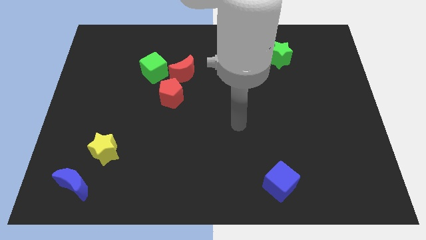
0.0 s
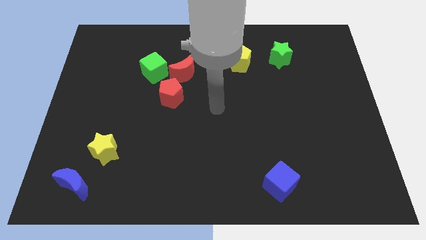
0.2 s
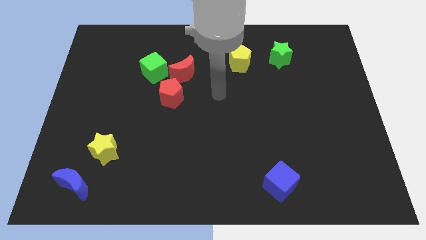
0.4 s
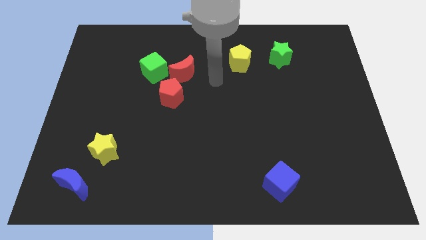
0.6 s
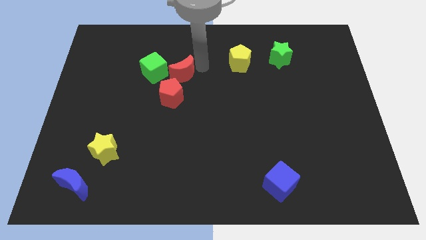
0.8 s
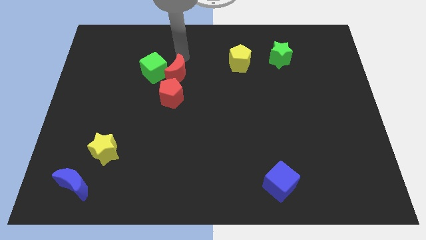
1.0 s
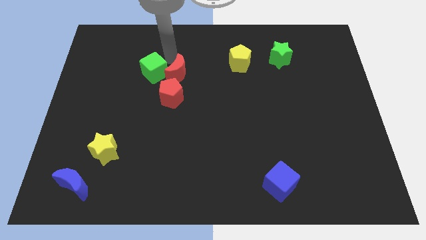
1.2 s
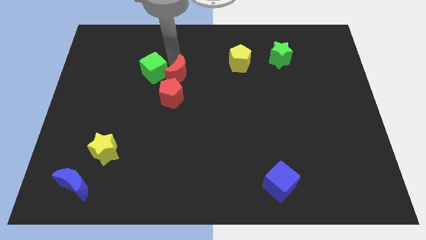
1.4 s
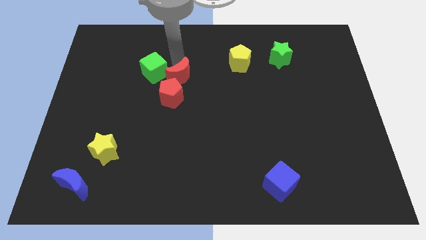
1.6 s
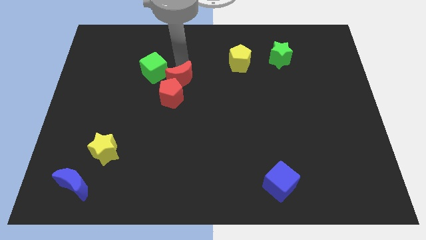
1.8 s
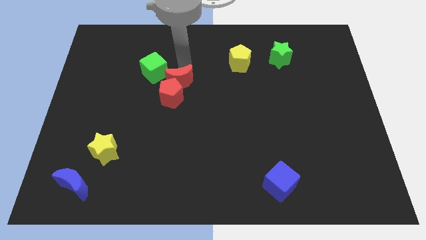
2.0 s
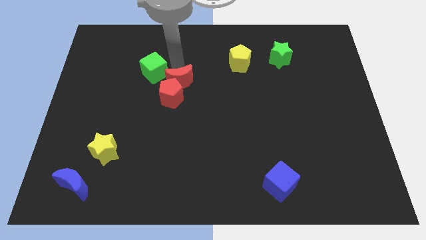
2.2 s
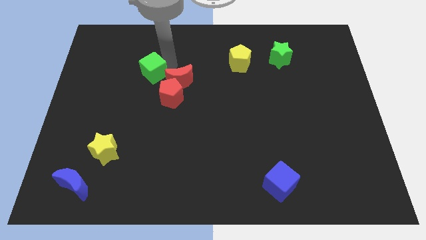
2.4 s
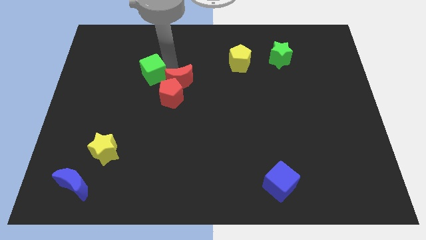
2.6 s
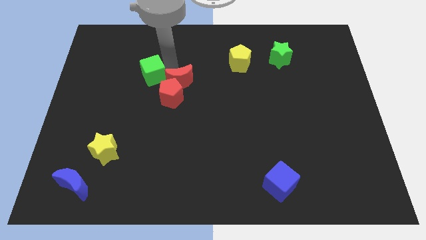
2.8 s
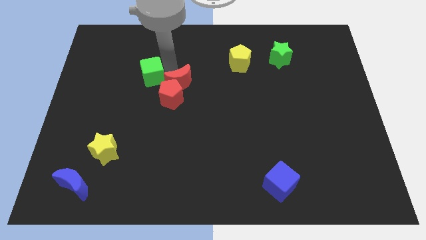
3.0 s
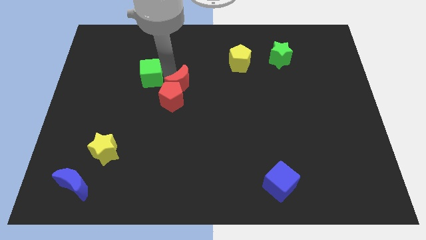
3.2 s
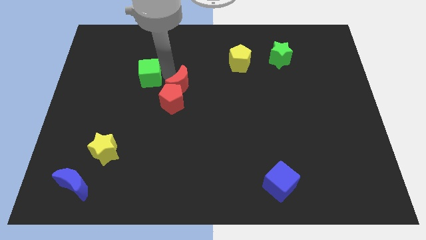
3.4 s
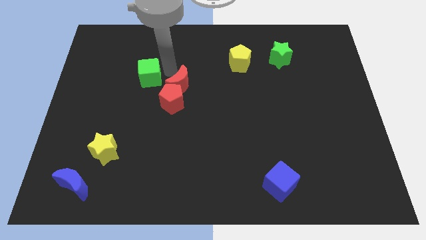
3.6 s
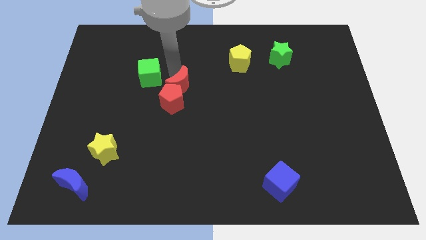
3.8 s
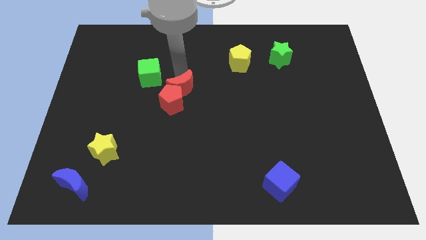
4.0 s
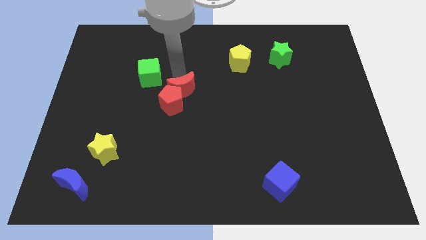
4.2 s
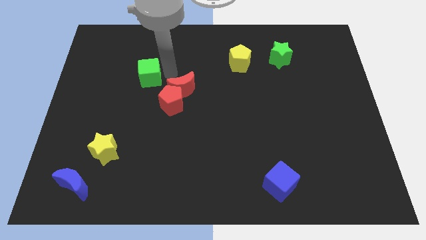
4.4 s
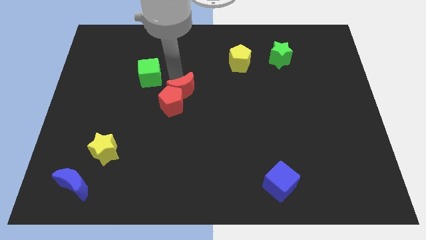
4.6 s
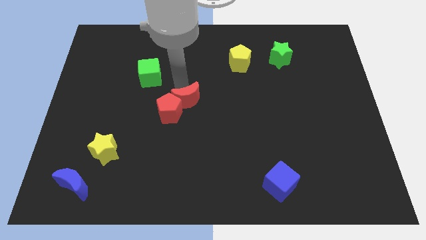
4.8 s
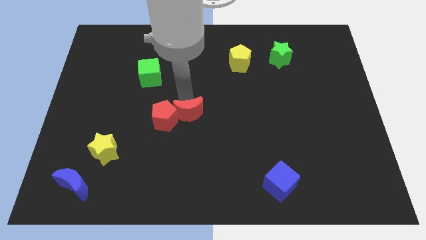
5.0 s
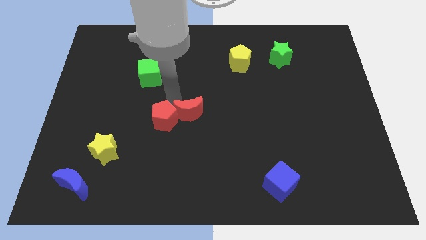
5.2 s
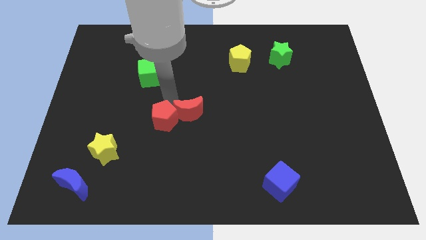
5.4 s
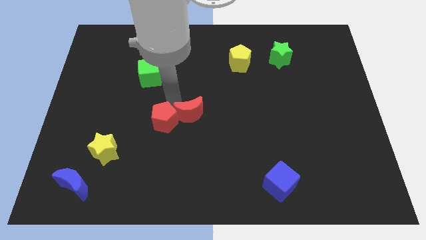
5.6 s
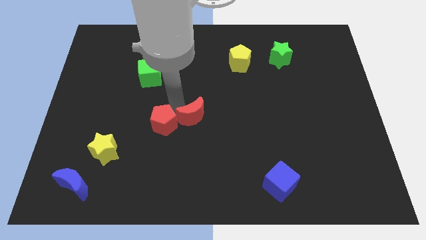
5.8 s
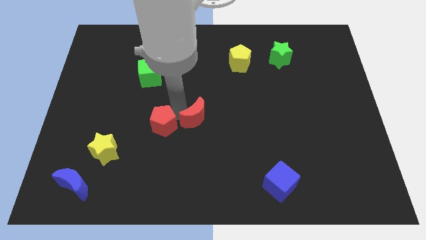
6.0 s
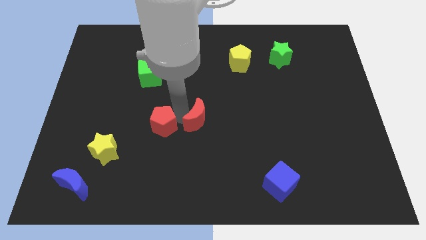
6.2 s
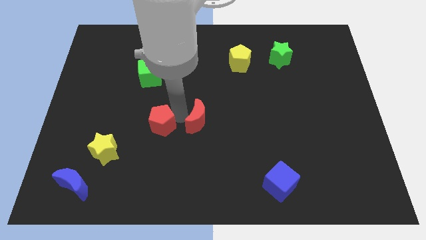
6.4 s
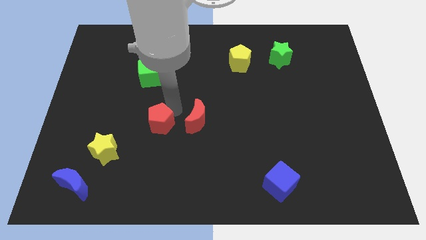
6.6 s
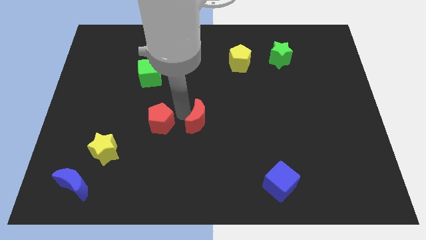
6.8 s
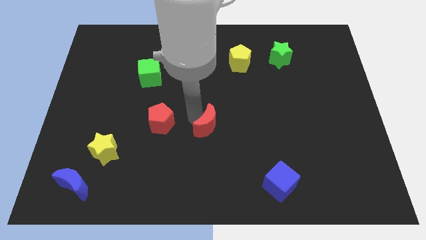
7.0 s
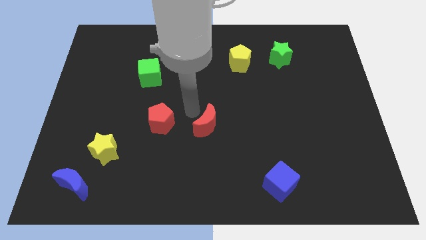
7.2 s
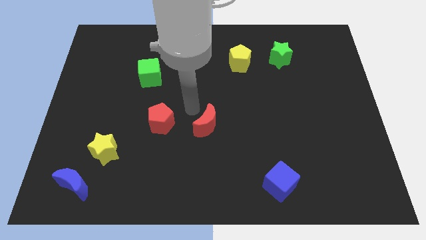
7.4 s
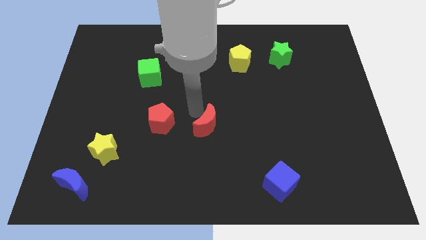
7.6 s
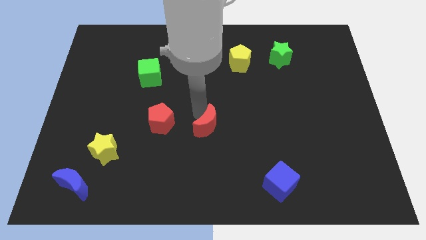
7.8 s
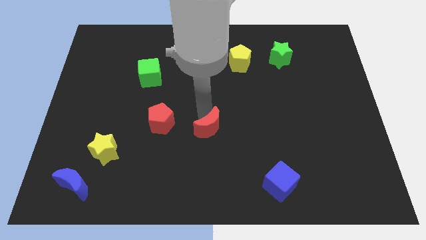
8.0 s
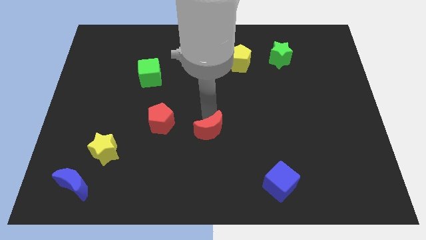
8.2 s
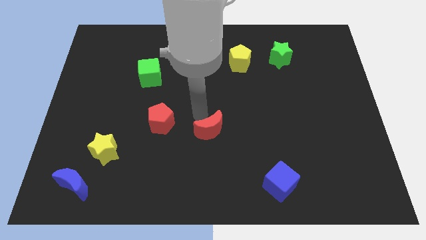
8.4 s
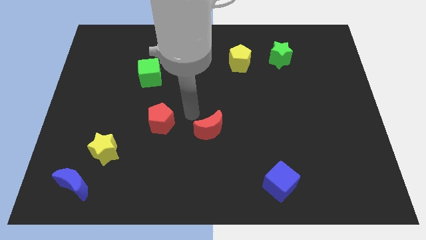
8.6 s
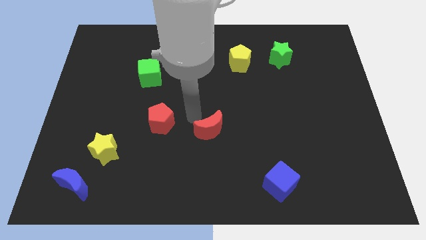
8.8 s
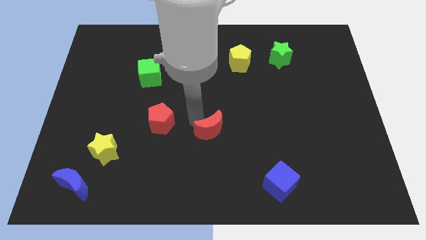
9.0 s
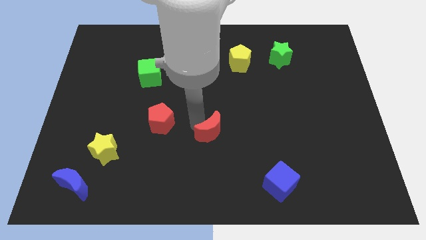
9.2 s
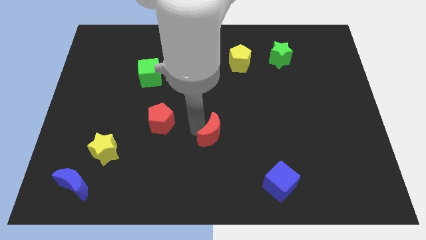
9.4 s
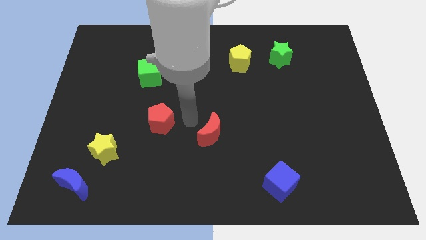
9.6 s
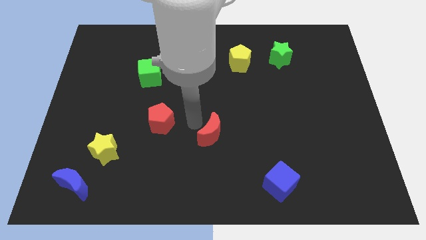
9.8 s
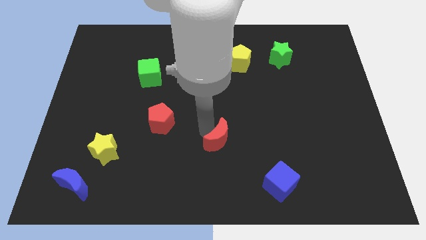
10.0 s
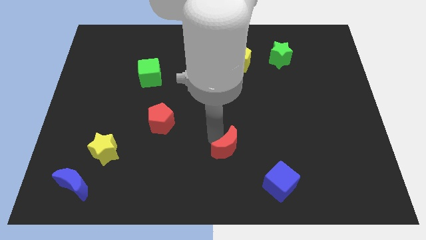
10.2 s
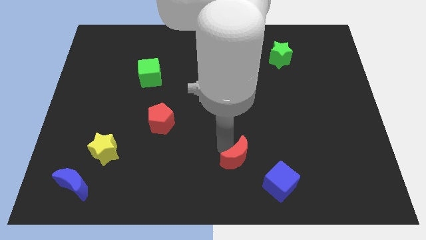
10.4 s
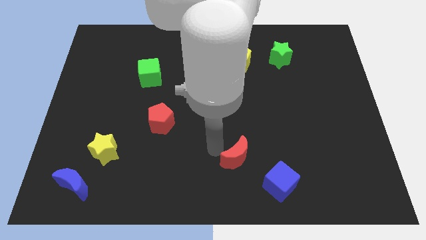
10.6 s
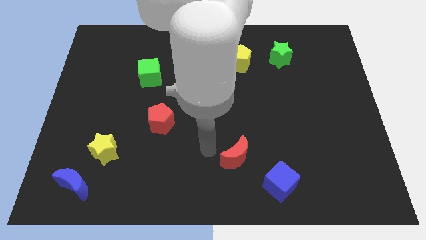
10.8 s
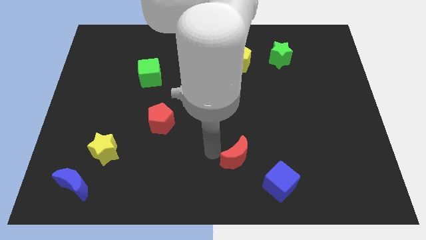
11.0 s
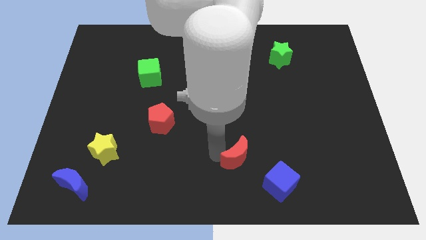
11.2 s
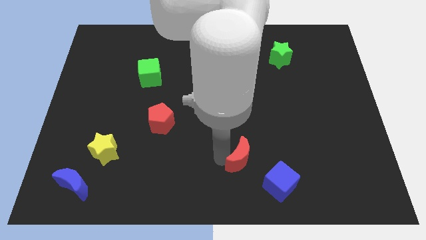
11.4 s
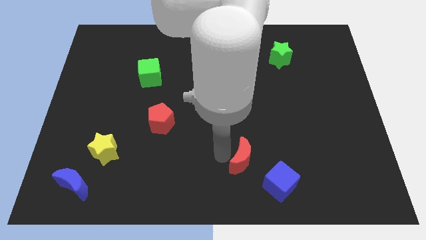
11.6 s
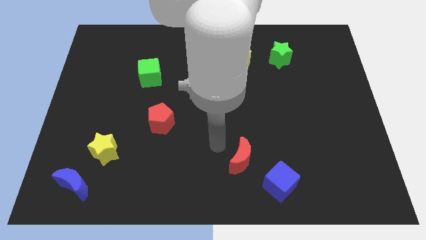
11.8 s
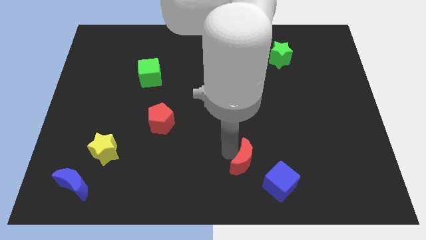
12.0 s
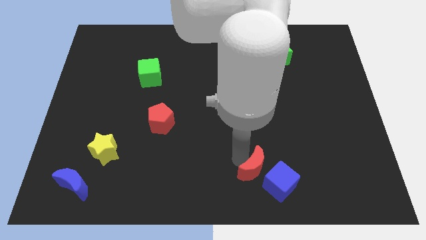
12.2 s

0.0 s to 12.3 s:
push the red moon to the blue cube

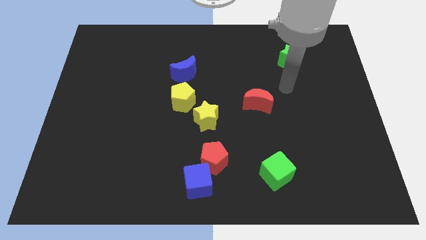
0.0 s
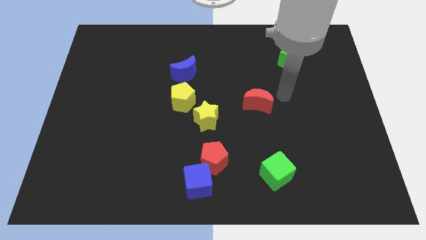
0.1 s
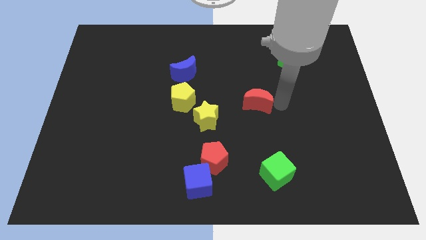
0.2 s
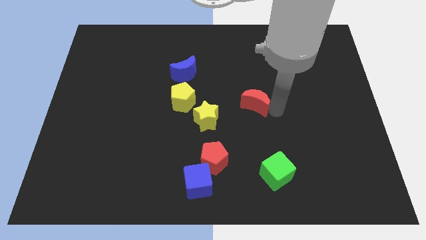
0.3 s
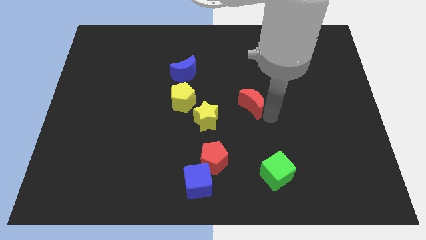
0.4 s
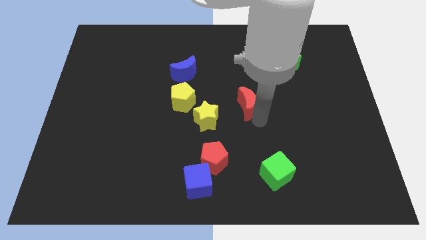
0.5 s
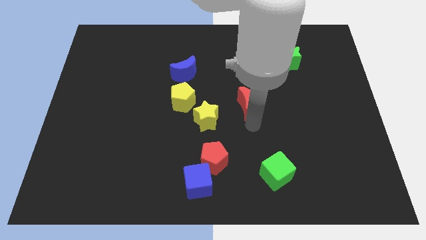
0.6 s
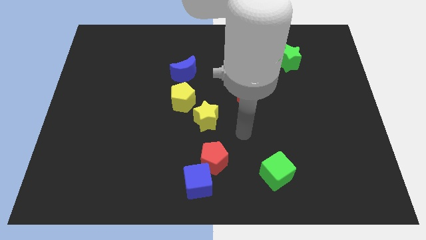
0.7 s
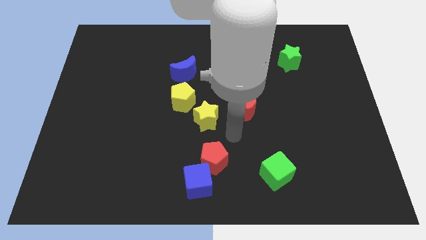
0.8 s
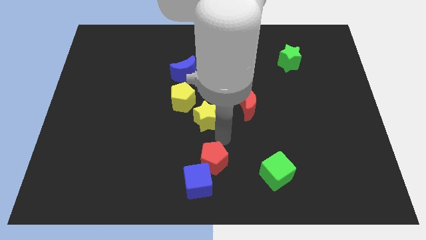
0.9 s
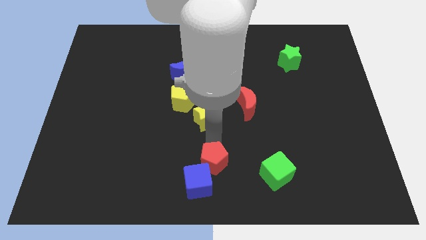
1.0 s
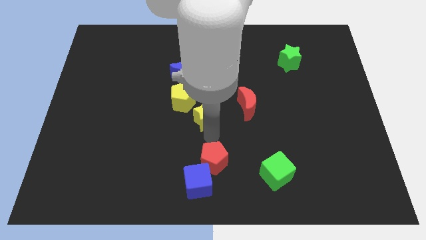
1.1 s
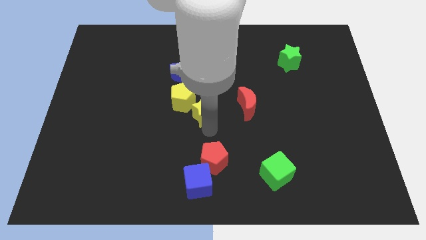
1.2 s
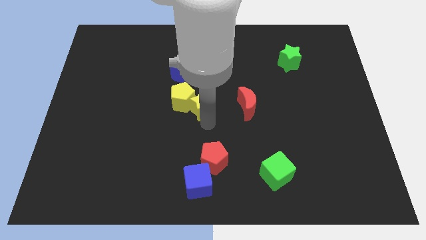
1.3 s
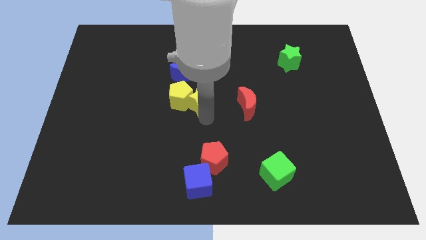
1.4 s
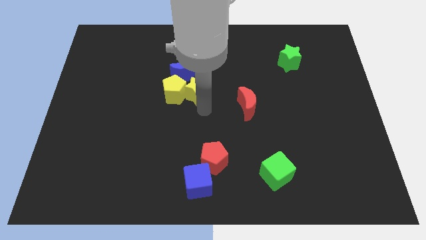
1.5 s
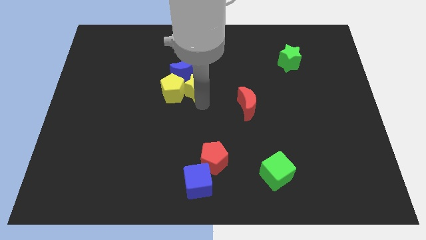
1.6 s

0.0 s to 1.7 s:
put the yellow star next to the blue moon
